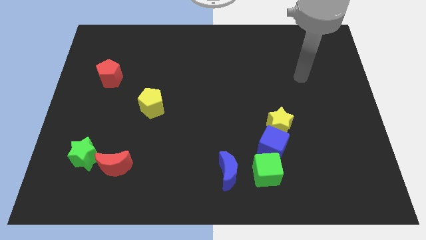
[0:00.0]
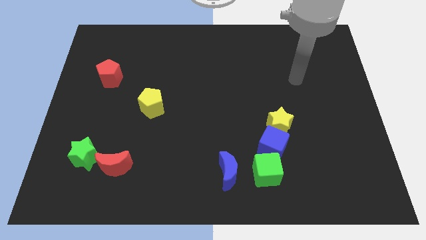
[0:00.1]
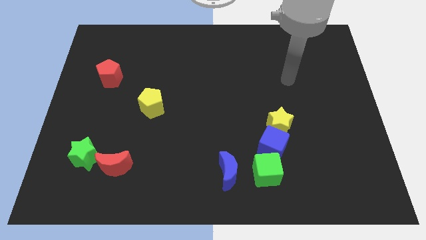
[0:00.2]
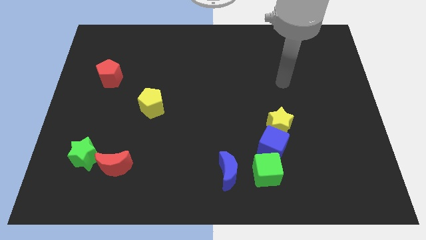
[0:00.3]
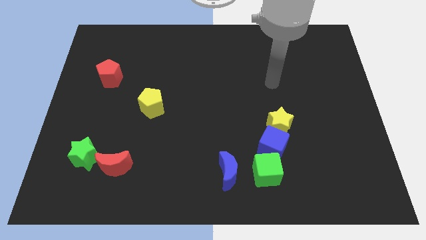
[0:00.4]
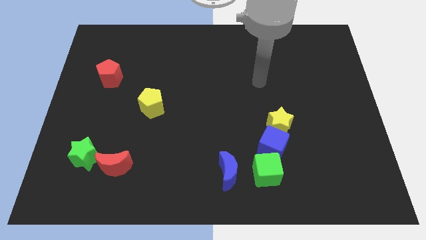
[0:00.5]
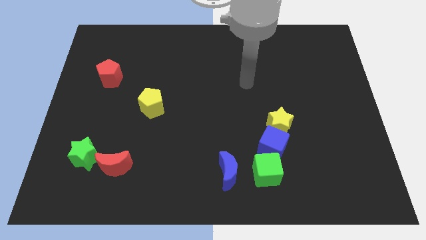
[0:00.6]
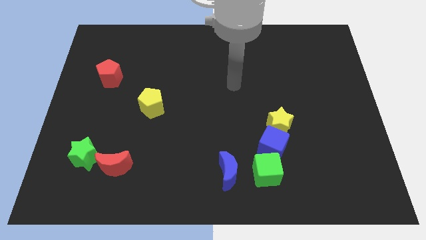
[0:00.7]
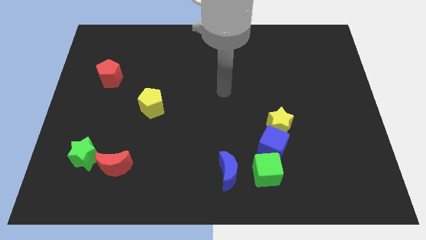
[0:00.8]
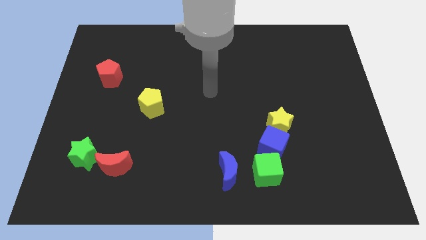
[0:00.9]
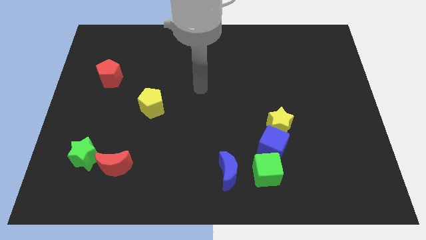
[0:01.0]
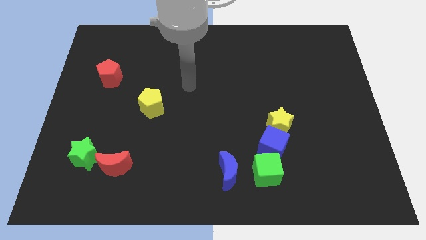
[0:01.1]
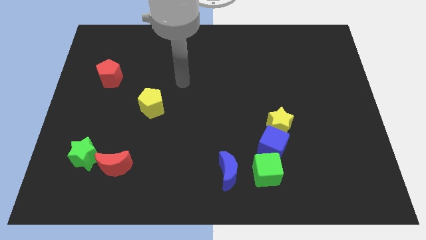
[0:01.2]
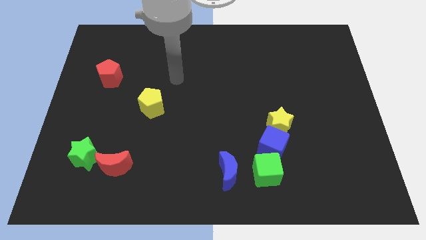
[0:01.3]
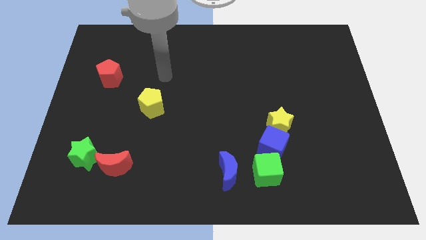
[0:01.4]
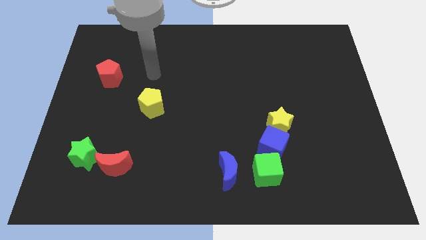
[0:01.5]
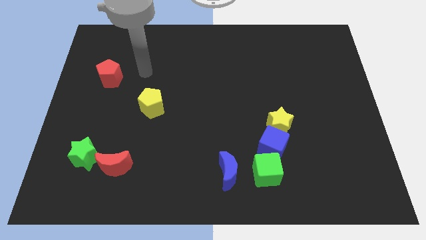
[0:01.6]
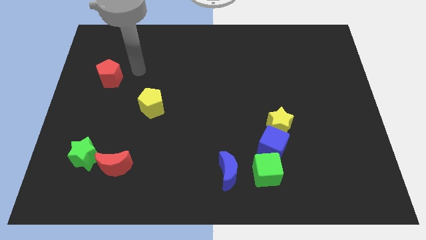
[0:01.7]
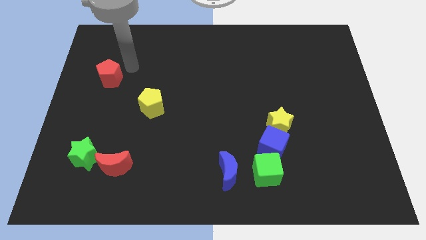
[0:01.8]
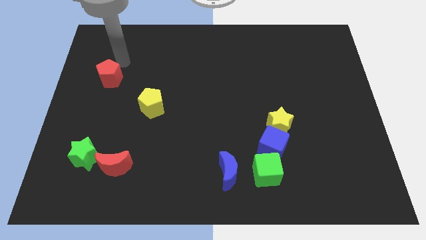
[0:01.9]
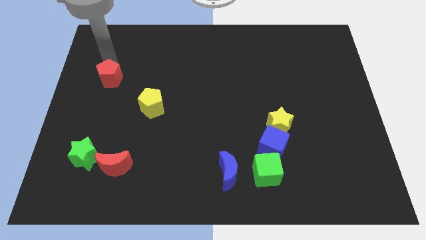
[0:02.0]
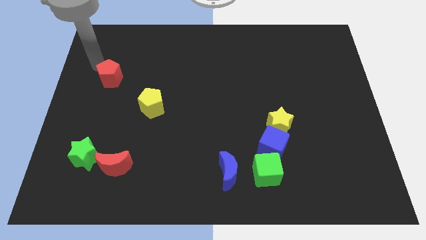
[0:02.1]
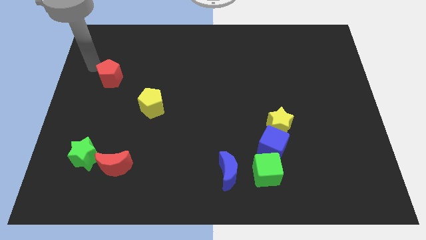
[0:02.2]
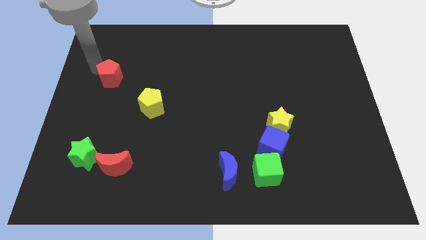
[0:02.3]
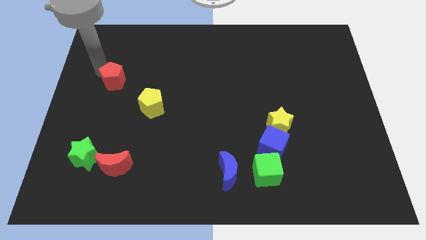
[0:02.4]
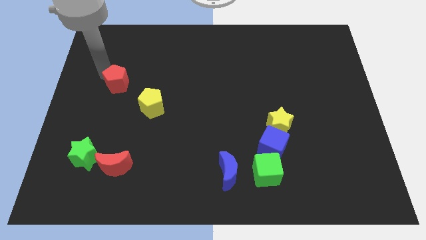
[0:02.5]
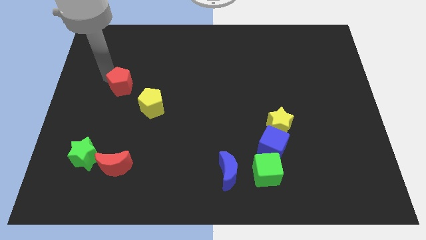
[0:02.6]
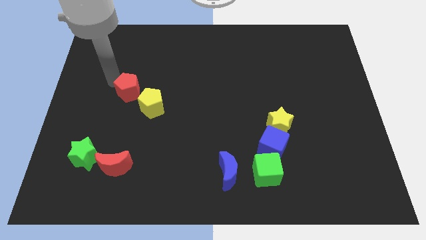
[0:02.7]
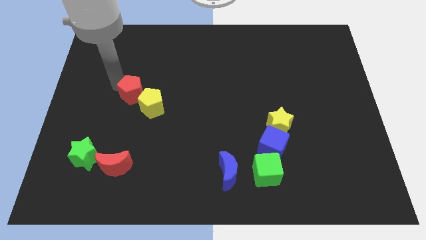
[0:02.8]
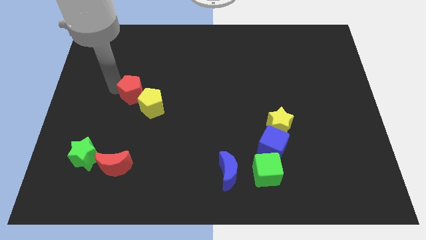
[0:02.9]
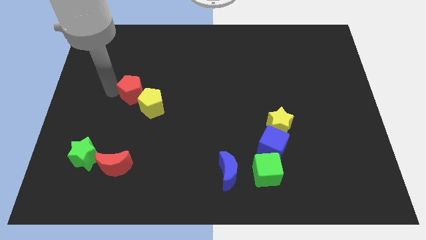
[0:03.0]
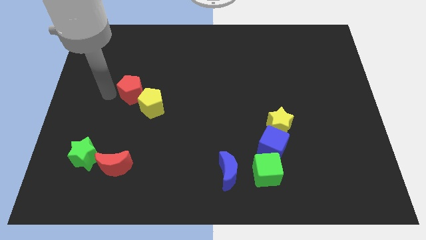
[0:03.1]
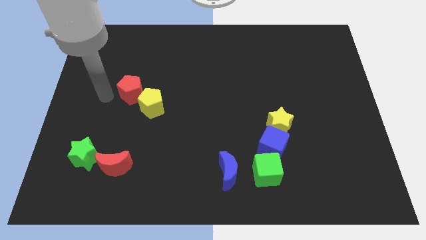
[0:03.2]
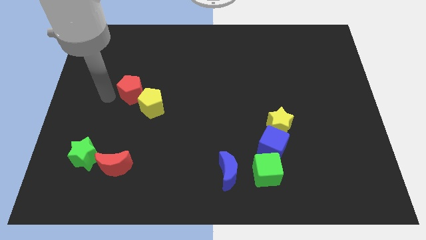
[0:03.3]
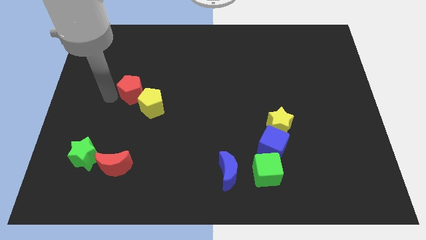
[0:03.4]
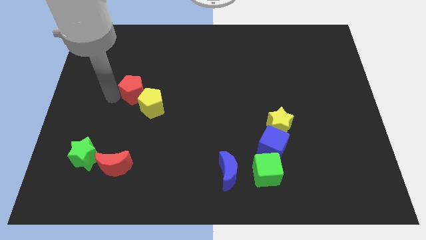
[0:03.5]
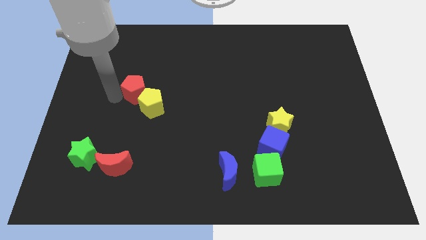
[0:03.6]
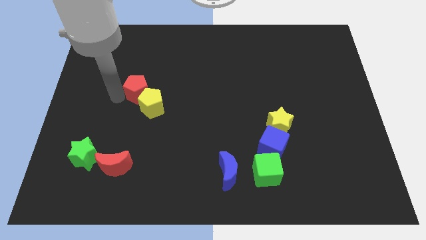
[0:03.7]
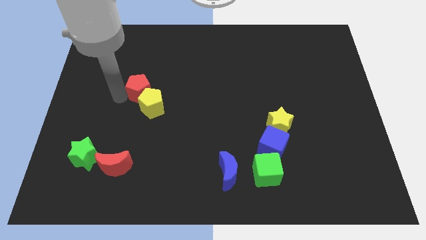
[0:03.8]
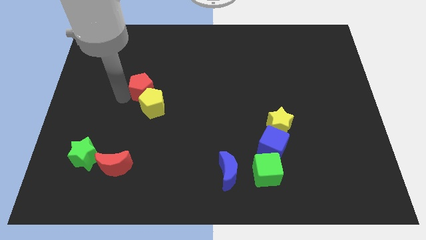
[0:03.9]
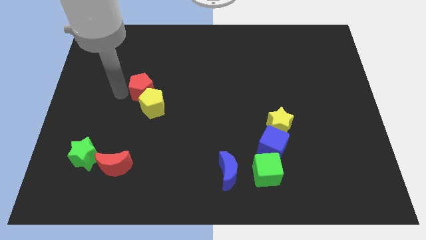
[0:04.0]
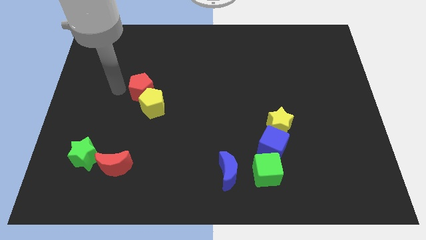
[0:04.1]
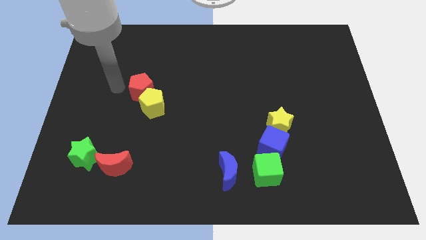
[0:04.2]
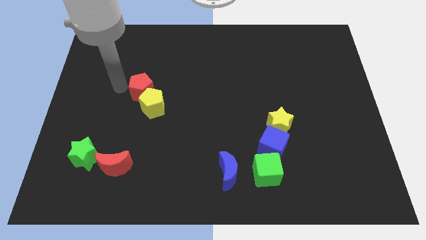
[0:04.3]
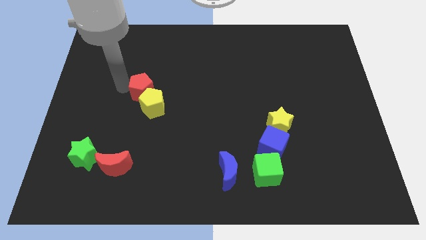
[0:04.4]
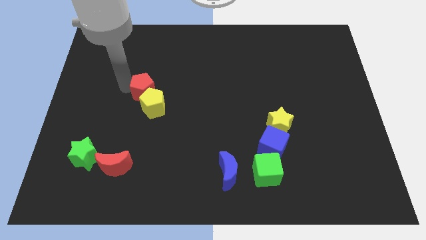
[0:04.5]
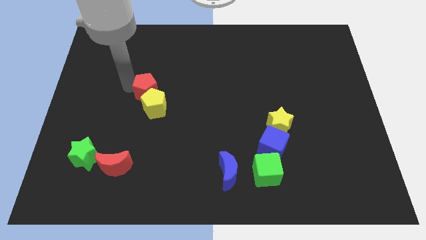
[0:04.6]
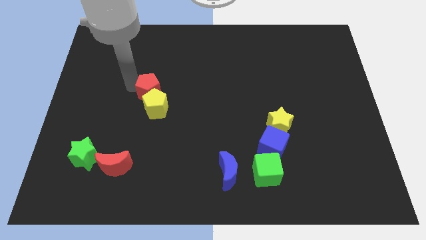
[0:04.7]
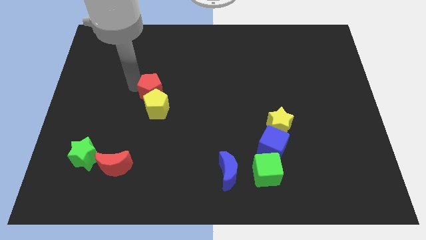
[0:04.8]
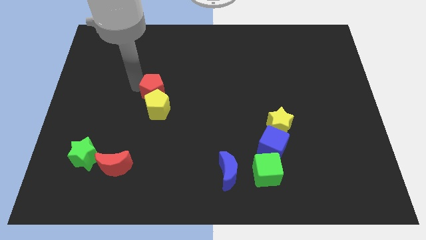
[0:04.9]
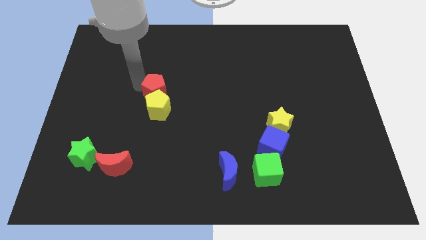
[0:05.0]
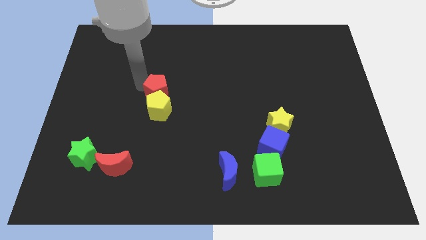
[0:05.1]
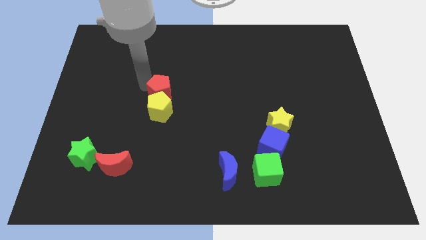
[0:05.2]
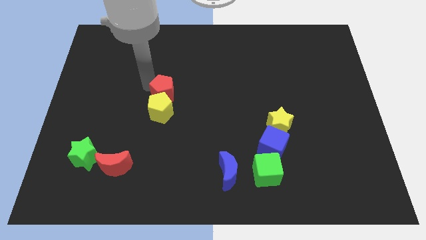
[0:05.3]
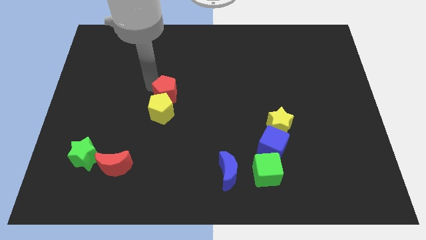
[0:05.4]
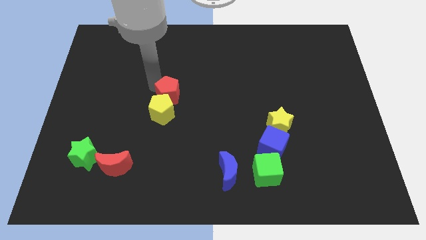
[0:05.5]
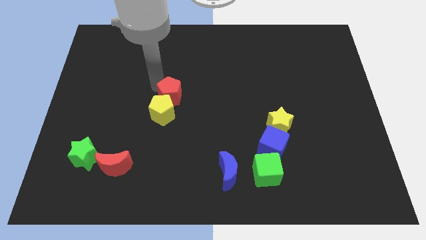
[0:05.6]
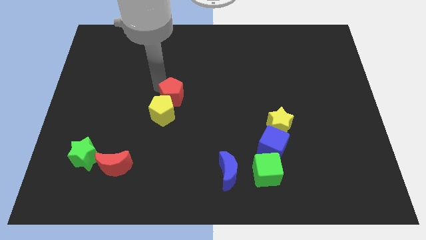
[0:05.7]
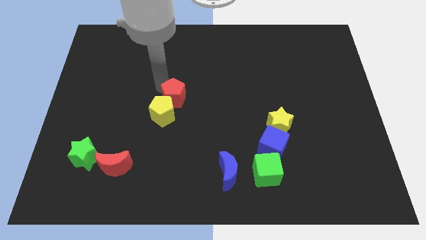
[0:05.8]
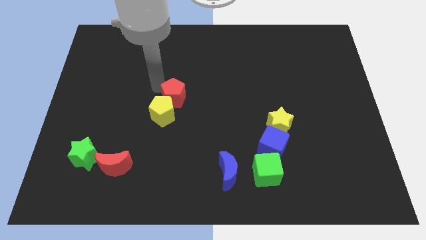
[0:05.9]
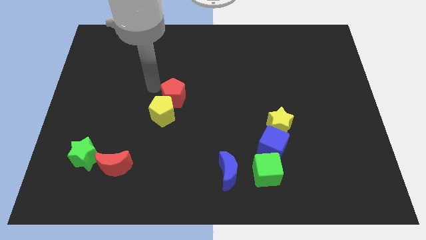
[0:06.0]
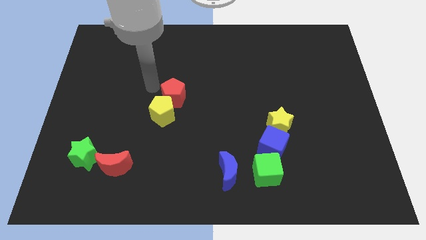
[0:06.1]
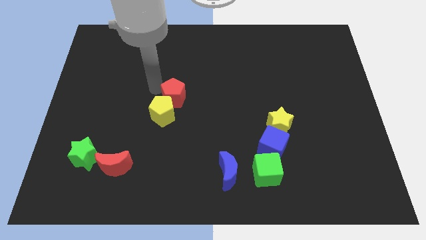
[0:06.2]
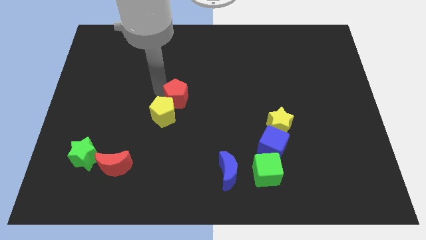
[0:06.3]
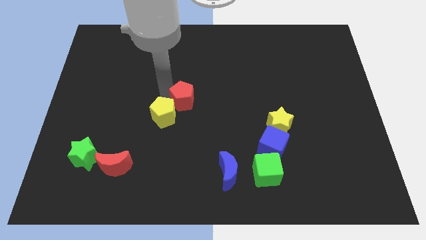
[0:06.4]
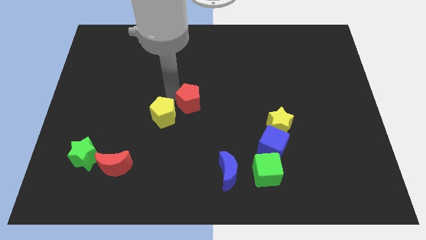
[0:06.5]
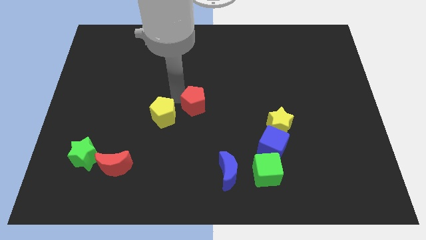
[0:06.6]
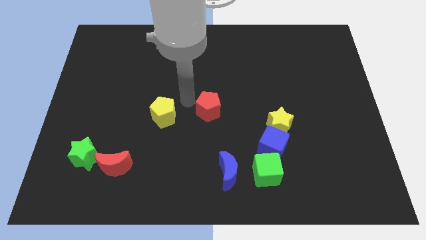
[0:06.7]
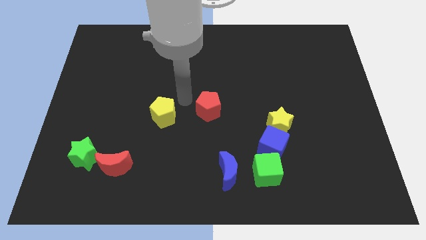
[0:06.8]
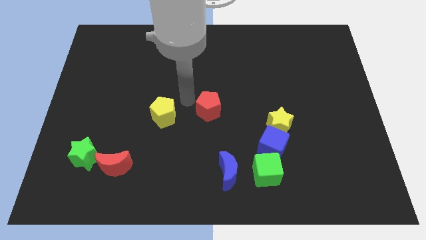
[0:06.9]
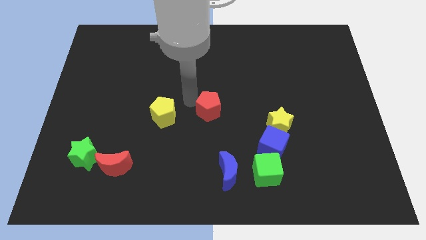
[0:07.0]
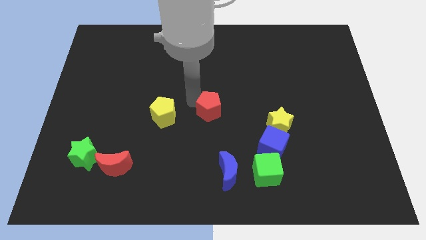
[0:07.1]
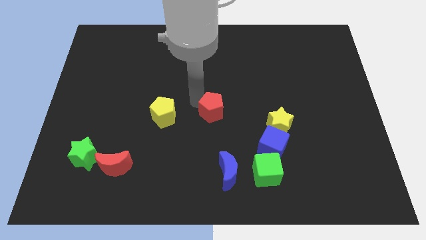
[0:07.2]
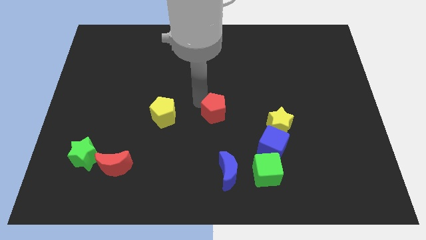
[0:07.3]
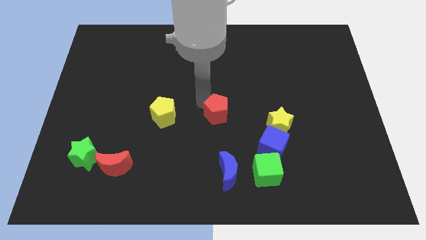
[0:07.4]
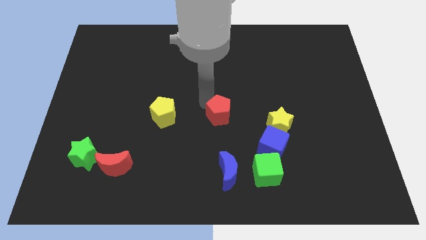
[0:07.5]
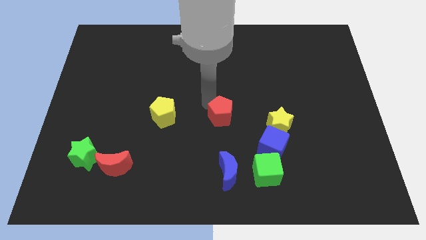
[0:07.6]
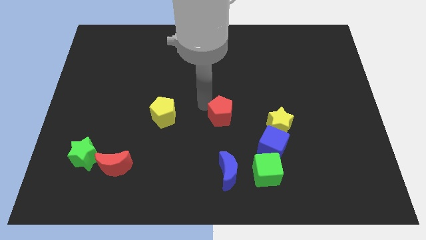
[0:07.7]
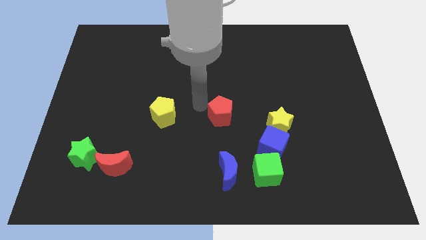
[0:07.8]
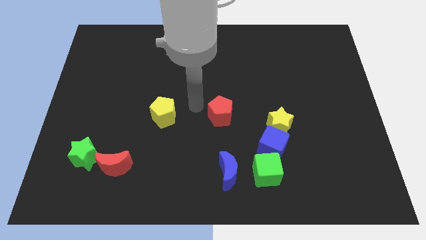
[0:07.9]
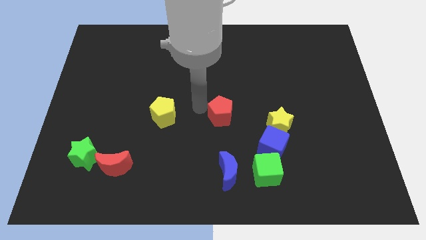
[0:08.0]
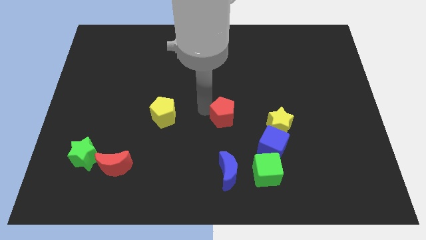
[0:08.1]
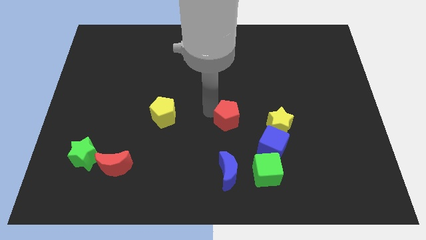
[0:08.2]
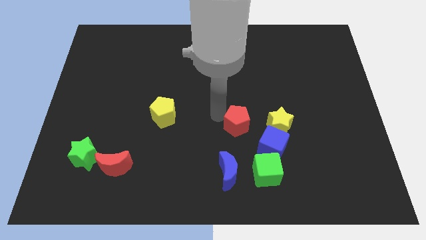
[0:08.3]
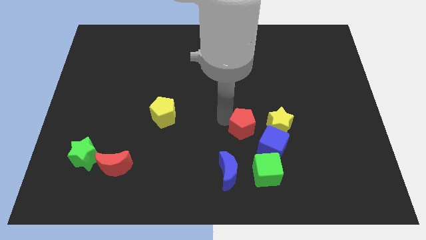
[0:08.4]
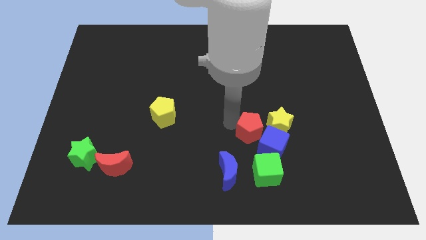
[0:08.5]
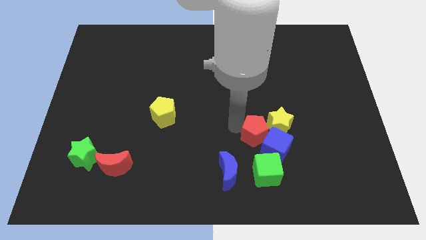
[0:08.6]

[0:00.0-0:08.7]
slide the red pentagon towards the yellow star
